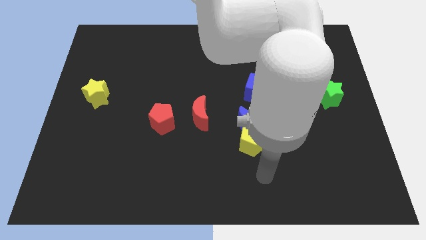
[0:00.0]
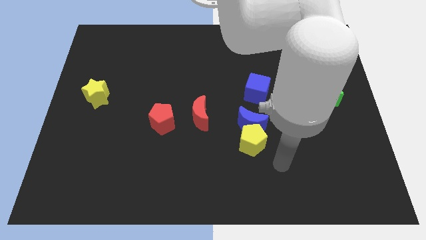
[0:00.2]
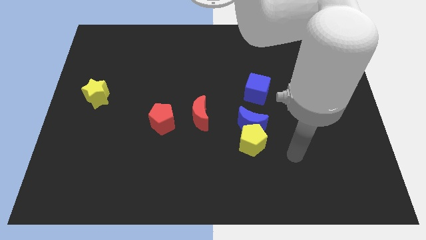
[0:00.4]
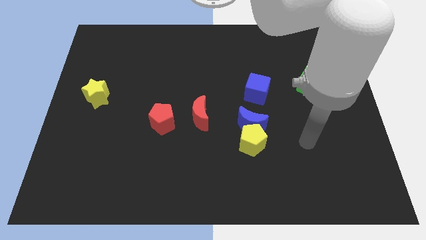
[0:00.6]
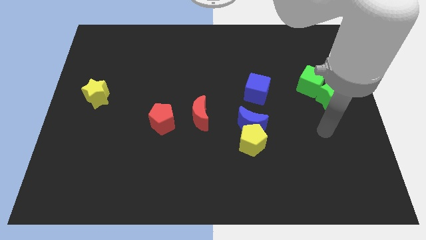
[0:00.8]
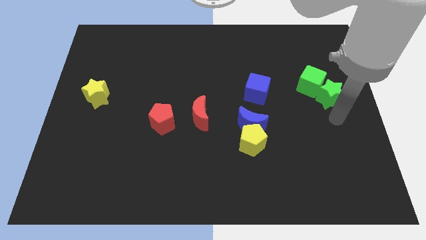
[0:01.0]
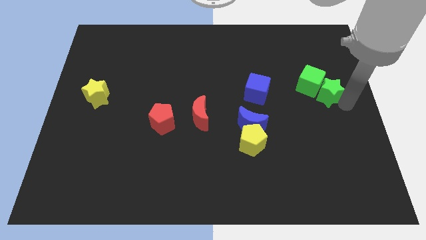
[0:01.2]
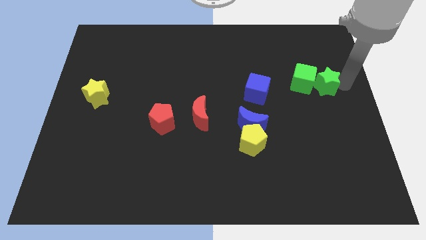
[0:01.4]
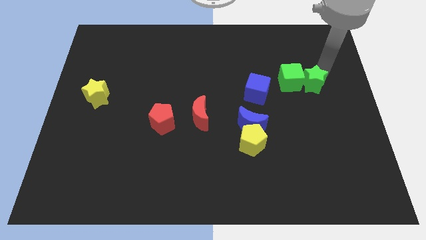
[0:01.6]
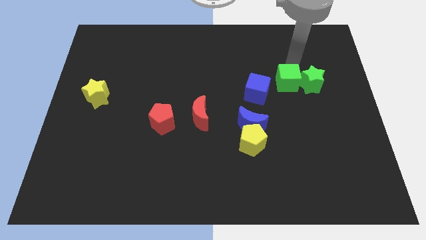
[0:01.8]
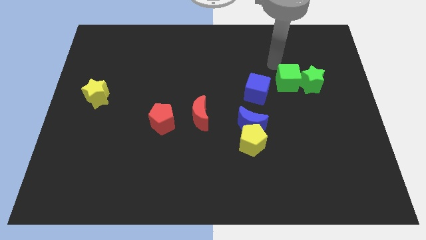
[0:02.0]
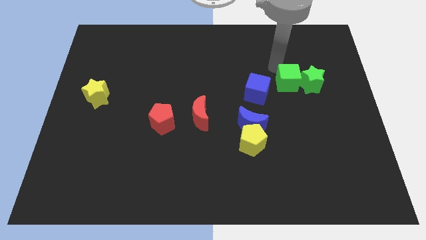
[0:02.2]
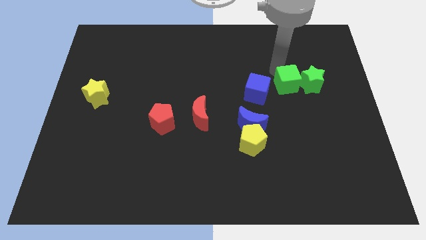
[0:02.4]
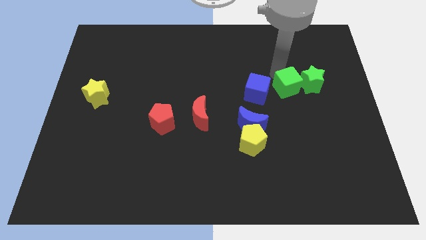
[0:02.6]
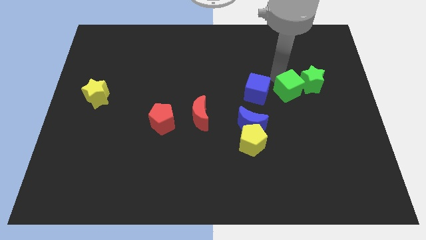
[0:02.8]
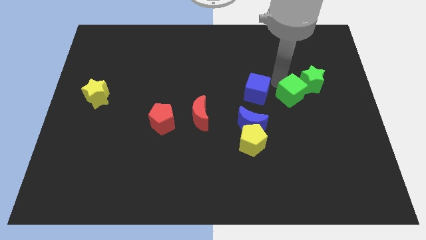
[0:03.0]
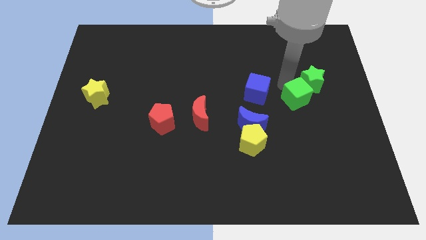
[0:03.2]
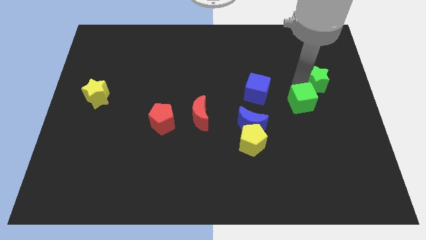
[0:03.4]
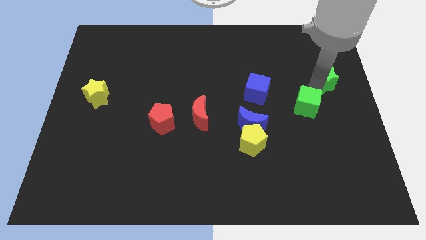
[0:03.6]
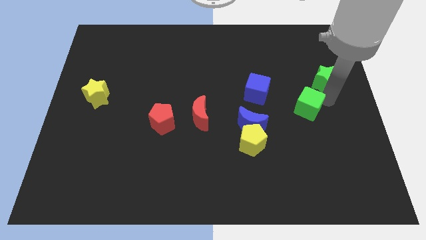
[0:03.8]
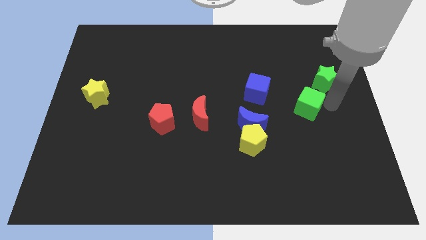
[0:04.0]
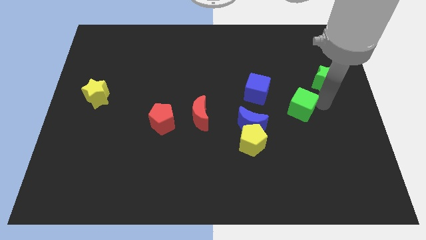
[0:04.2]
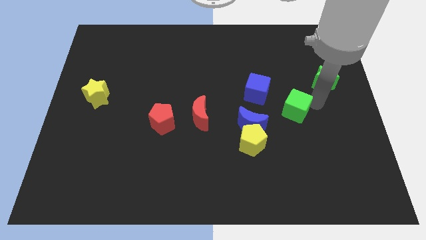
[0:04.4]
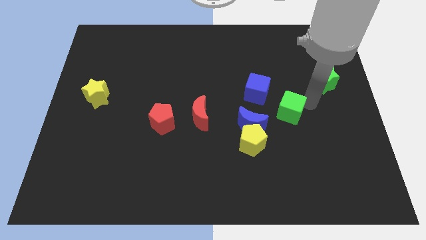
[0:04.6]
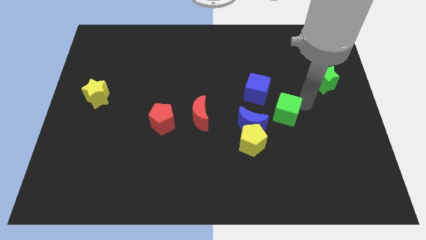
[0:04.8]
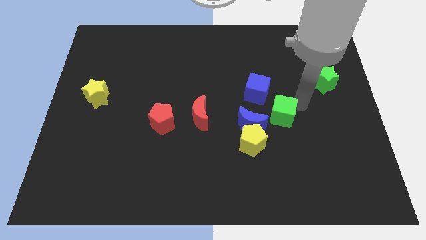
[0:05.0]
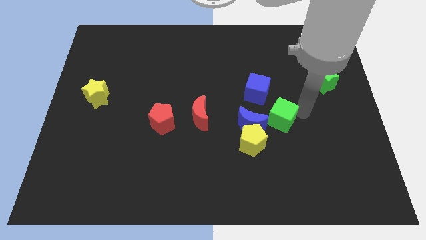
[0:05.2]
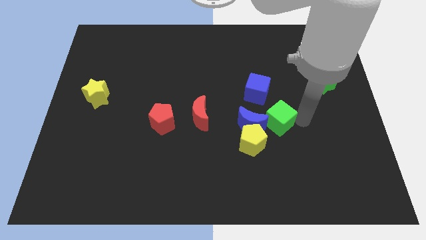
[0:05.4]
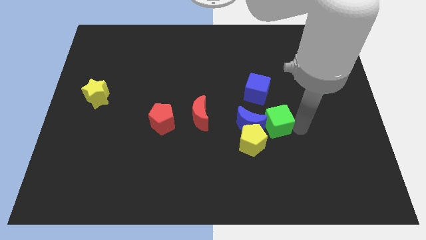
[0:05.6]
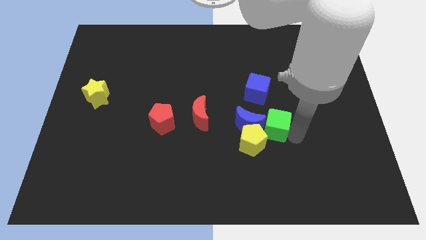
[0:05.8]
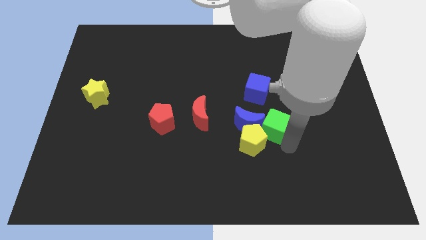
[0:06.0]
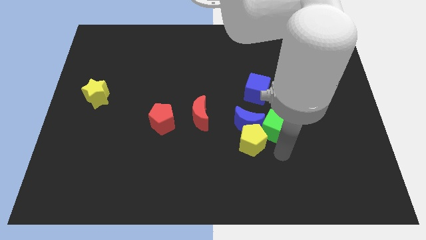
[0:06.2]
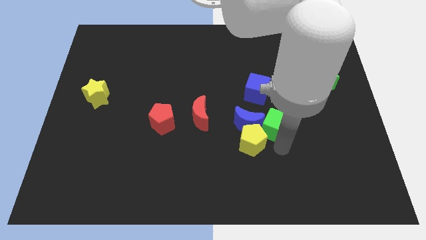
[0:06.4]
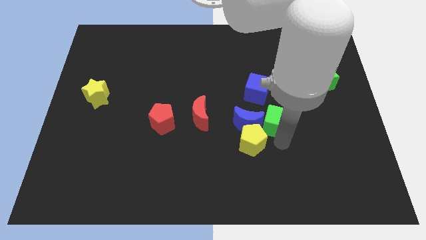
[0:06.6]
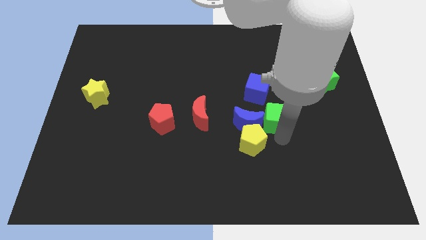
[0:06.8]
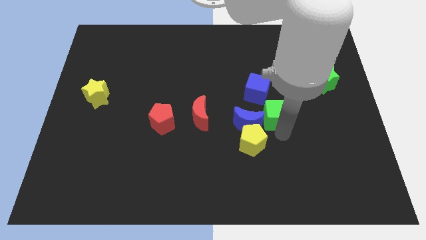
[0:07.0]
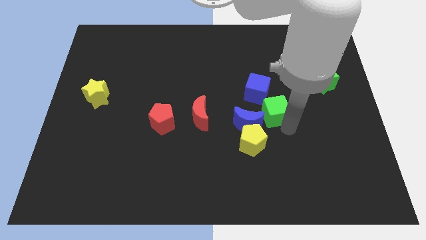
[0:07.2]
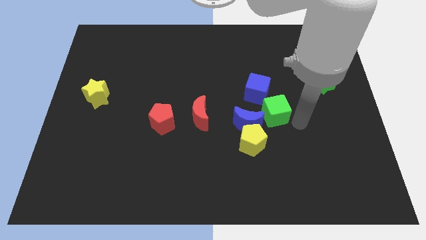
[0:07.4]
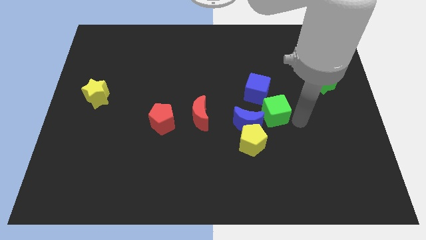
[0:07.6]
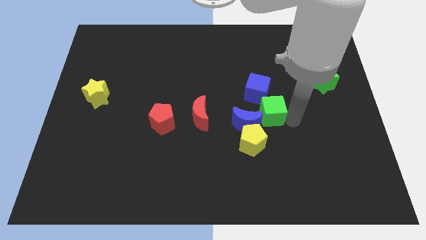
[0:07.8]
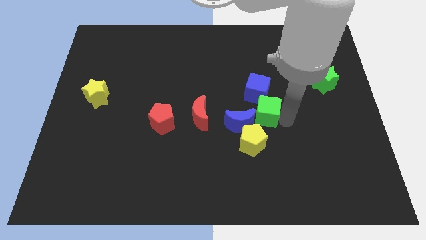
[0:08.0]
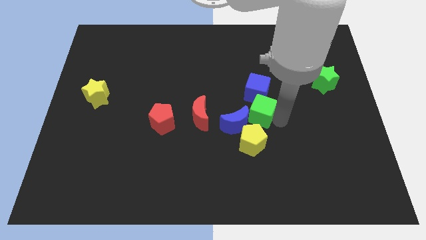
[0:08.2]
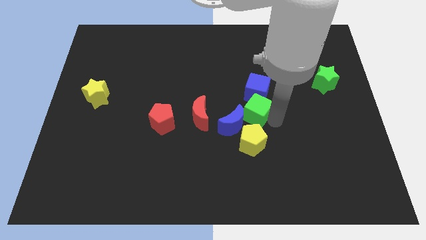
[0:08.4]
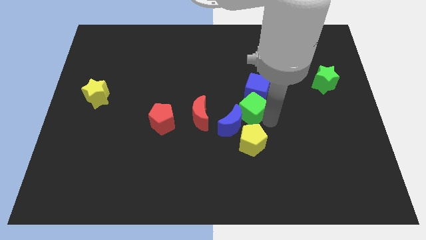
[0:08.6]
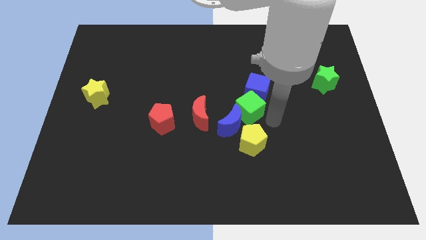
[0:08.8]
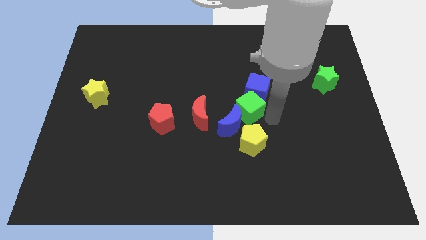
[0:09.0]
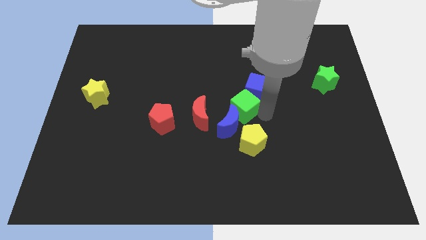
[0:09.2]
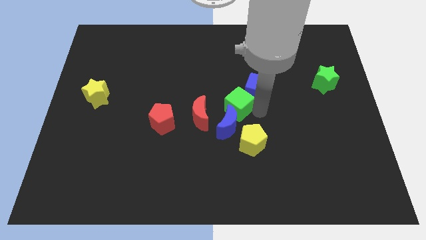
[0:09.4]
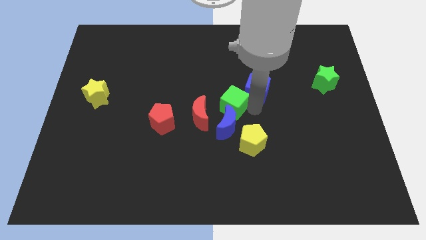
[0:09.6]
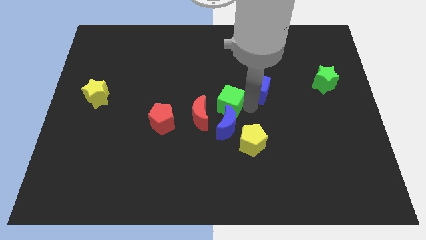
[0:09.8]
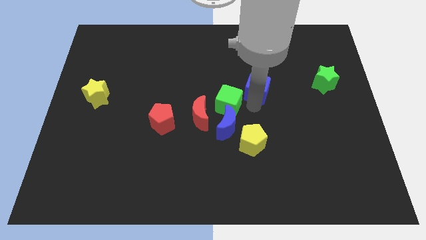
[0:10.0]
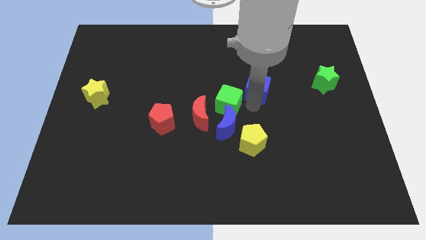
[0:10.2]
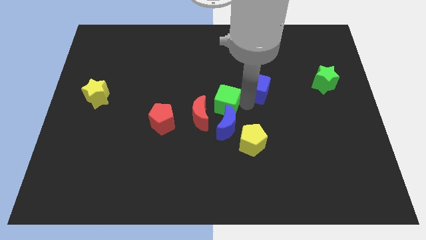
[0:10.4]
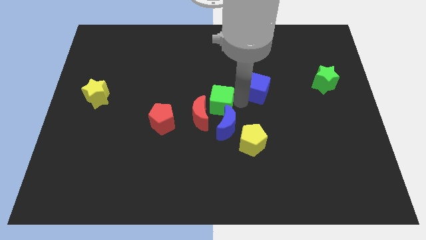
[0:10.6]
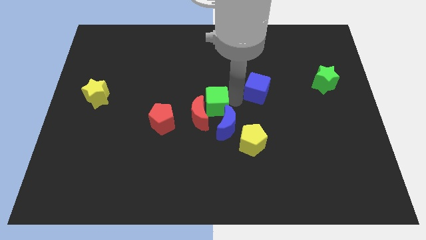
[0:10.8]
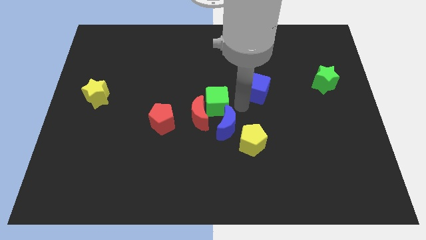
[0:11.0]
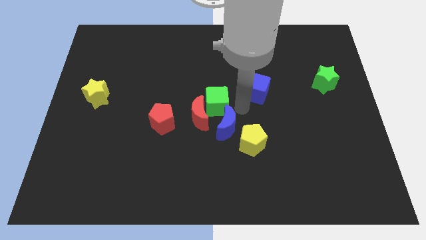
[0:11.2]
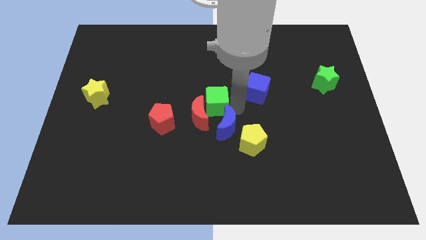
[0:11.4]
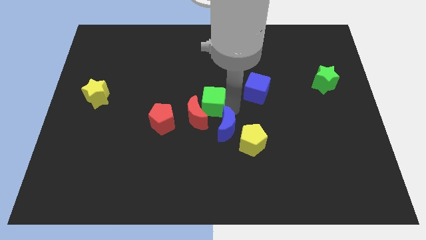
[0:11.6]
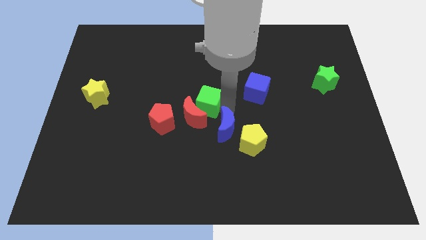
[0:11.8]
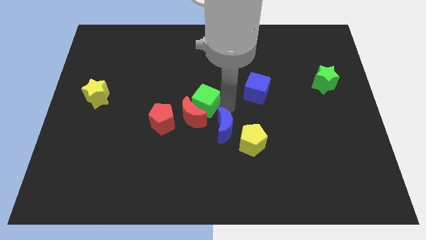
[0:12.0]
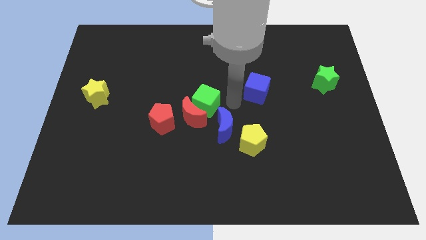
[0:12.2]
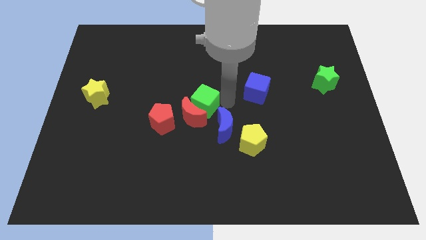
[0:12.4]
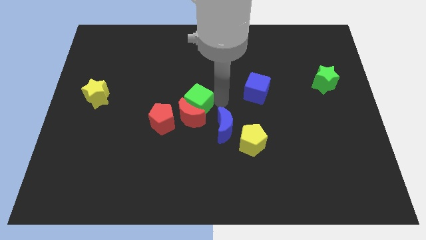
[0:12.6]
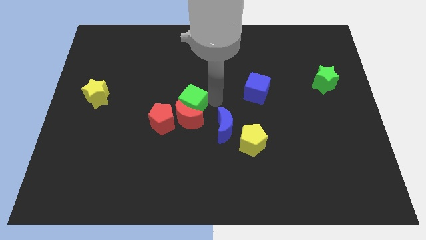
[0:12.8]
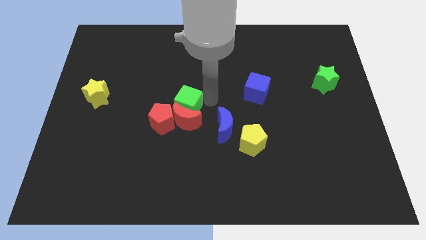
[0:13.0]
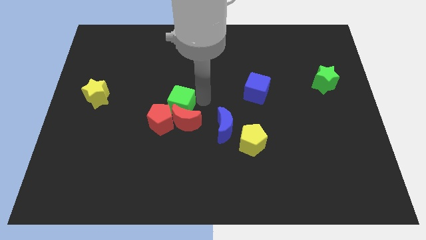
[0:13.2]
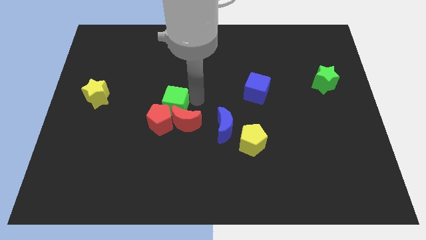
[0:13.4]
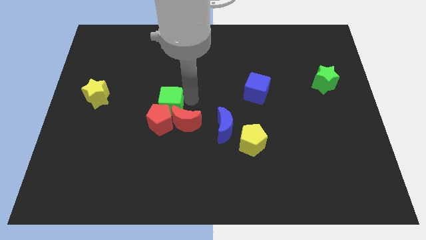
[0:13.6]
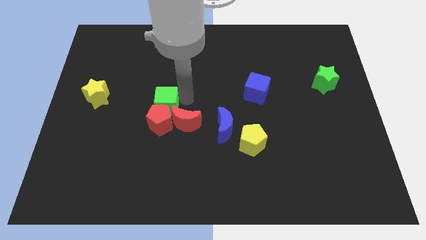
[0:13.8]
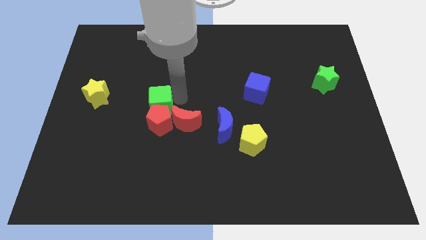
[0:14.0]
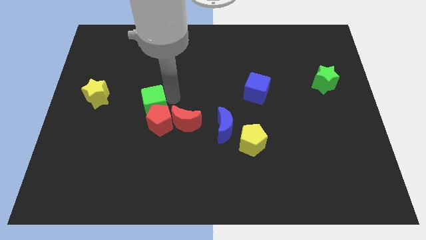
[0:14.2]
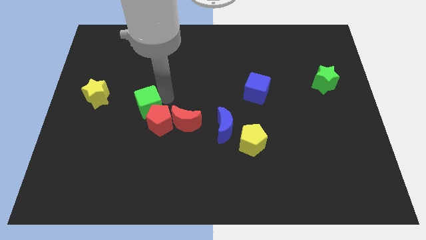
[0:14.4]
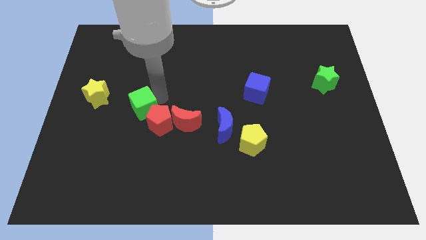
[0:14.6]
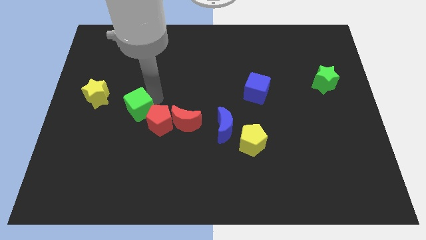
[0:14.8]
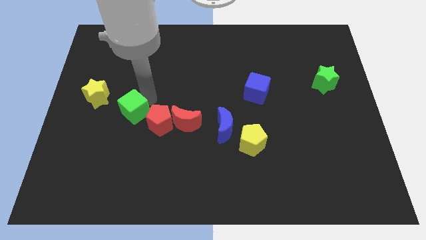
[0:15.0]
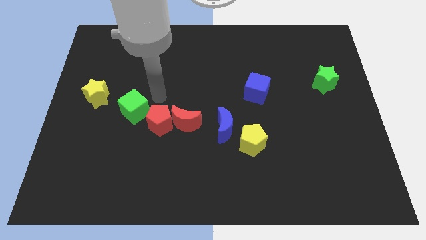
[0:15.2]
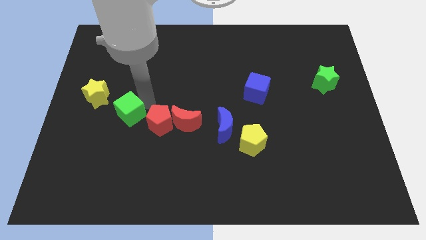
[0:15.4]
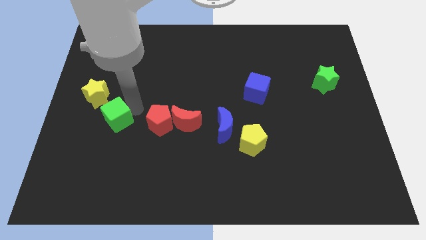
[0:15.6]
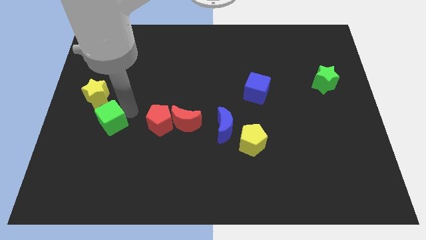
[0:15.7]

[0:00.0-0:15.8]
put the green cube to the bottom of the yellow star
